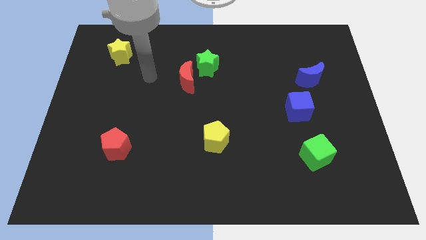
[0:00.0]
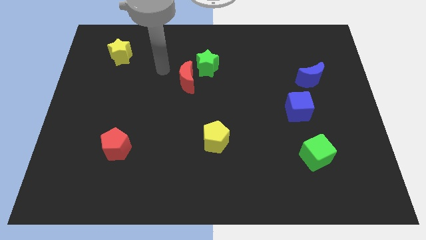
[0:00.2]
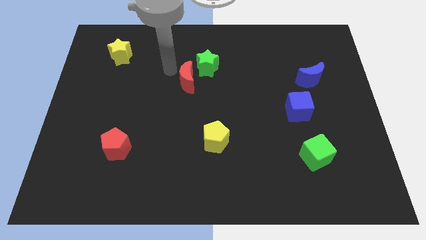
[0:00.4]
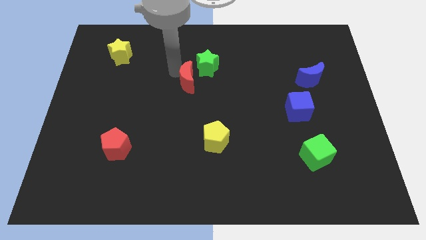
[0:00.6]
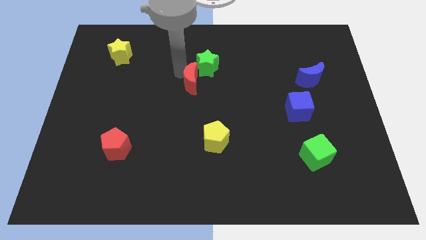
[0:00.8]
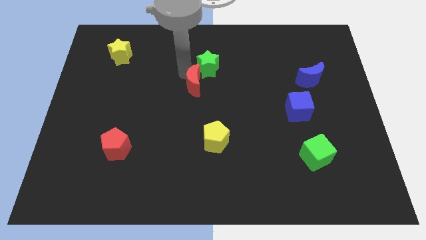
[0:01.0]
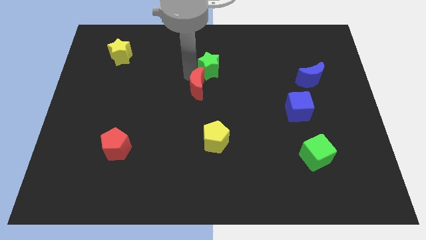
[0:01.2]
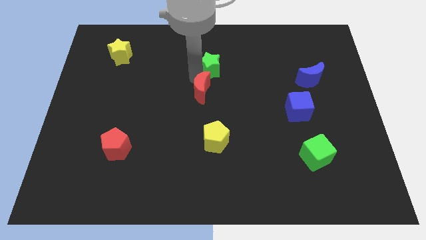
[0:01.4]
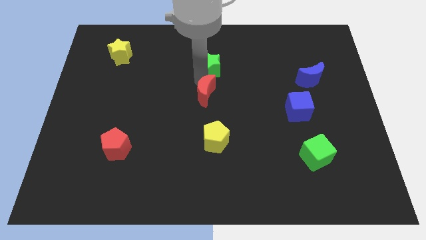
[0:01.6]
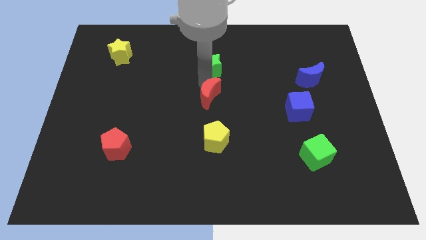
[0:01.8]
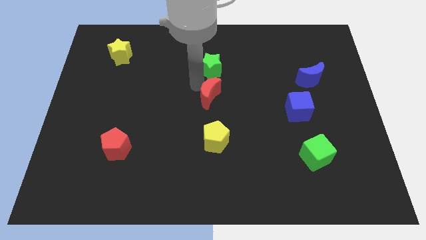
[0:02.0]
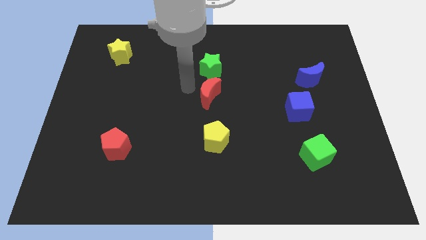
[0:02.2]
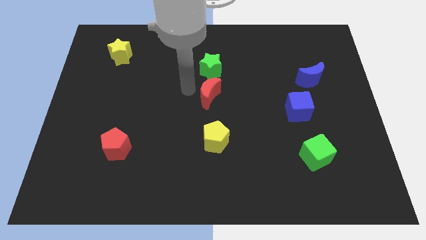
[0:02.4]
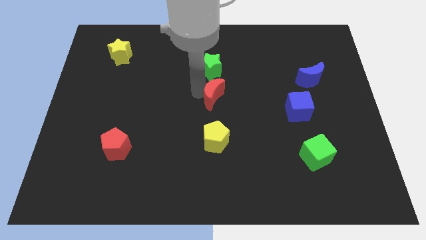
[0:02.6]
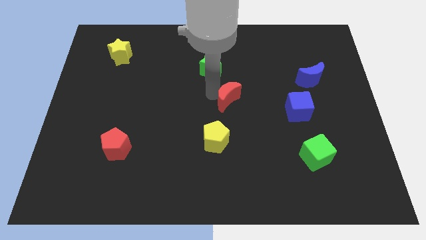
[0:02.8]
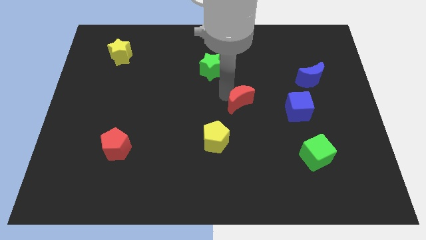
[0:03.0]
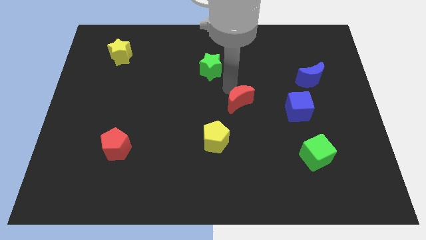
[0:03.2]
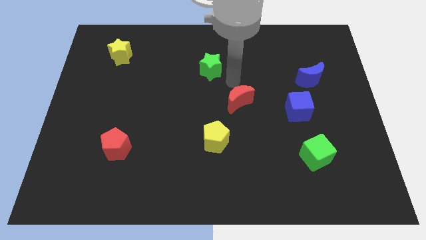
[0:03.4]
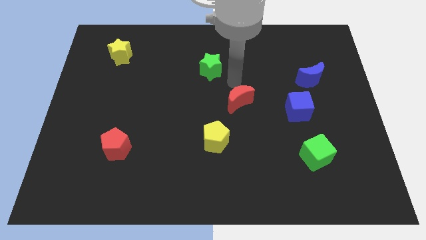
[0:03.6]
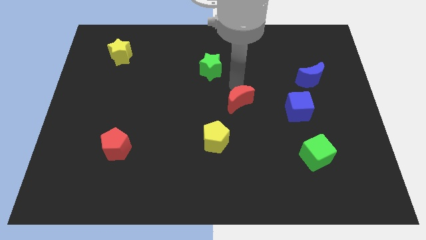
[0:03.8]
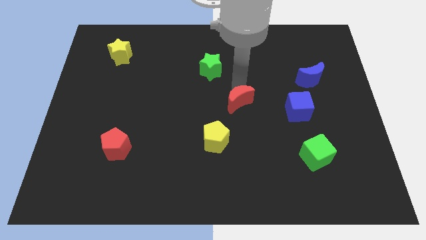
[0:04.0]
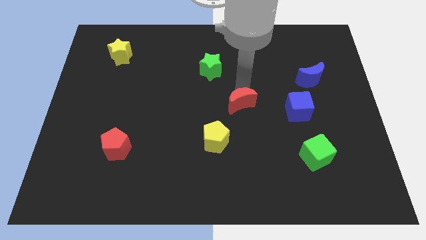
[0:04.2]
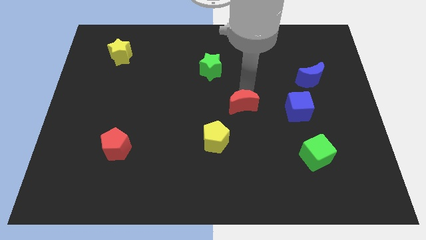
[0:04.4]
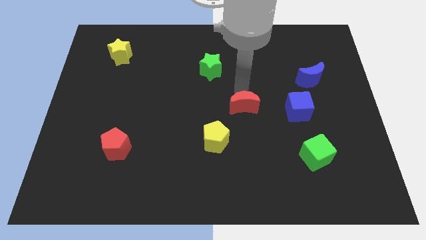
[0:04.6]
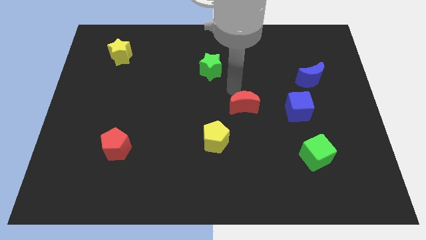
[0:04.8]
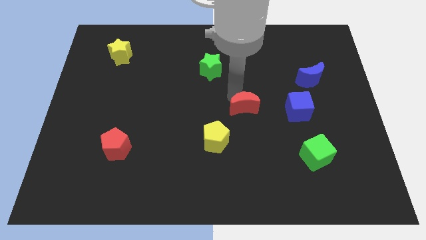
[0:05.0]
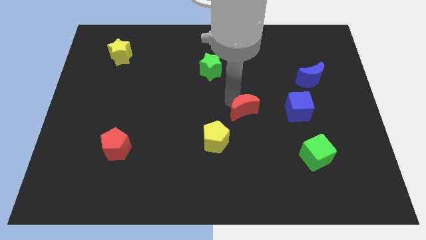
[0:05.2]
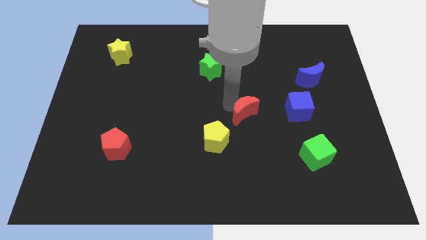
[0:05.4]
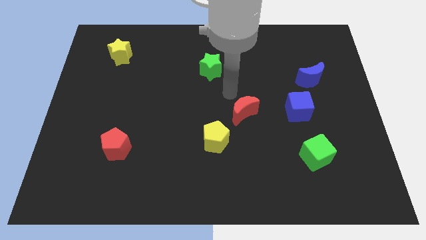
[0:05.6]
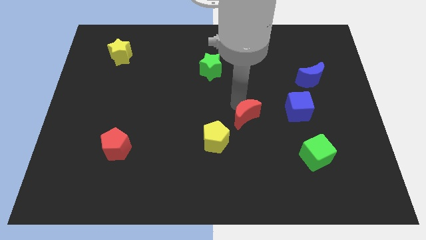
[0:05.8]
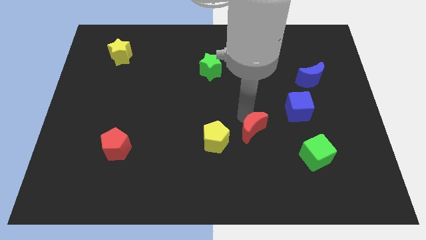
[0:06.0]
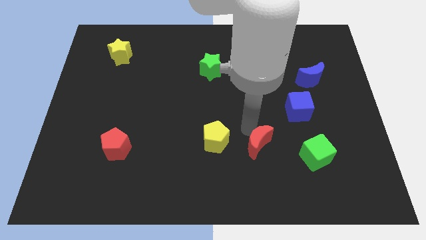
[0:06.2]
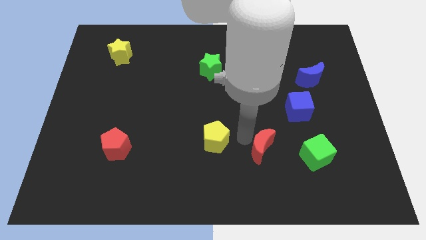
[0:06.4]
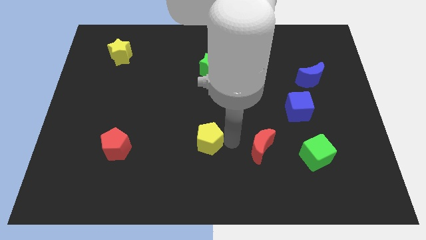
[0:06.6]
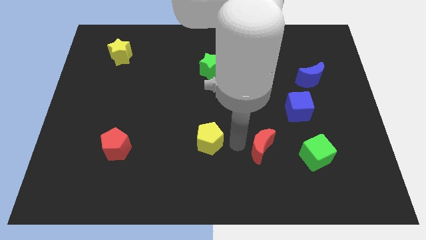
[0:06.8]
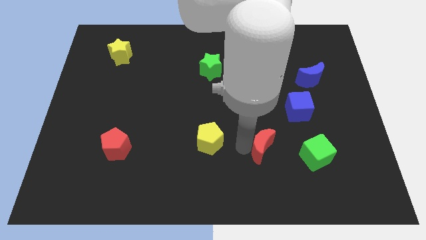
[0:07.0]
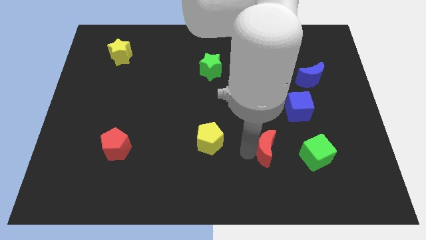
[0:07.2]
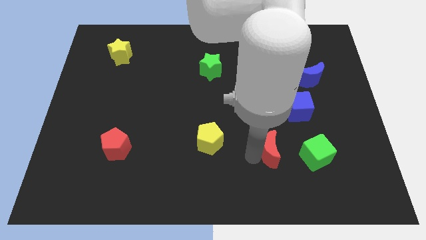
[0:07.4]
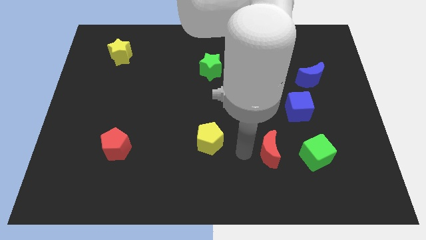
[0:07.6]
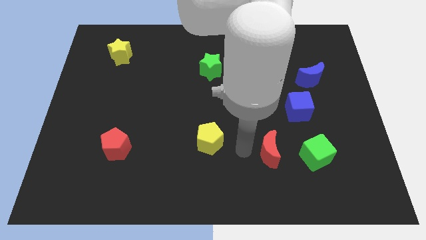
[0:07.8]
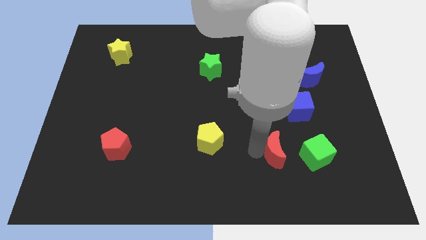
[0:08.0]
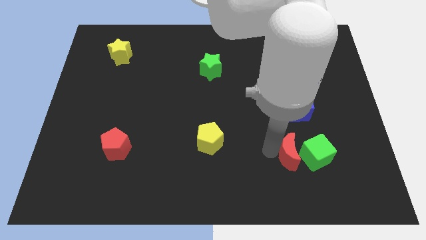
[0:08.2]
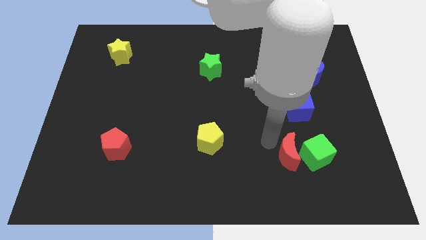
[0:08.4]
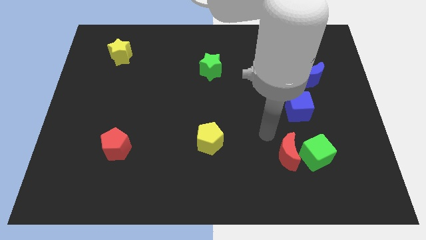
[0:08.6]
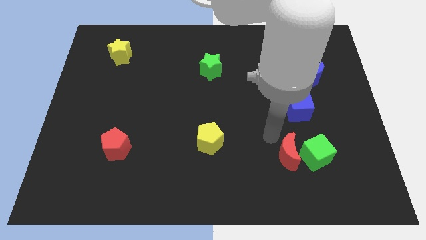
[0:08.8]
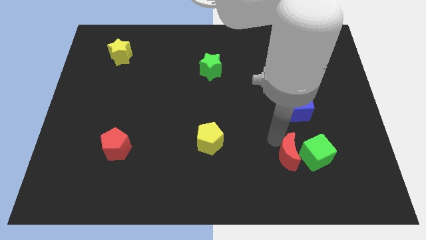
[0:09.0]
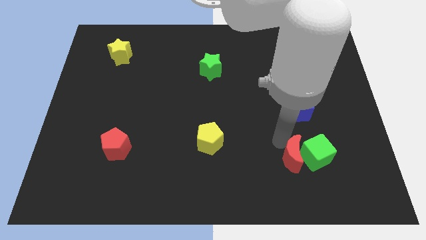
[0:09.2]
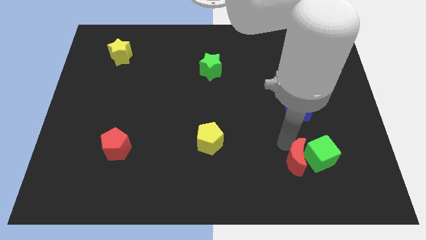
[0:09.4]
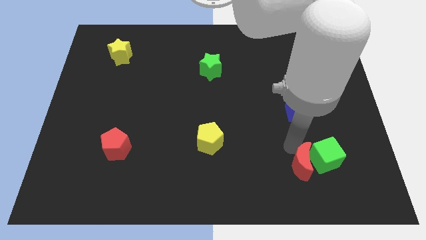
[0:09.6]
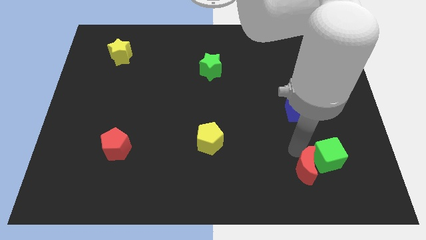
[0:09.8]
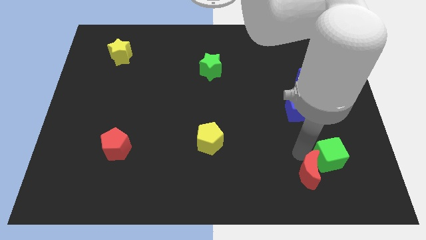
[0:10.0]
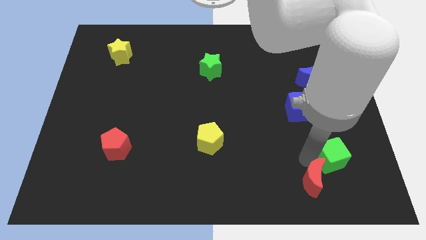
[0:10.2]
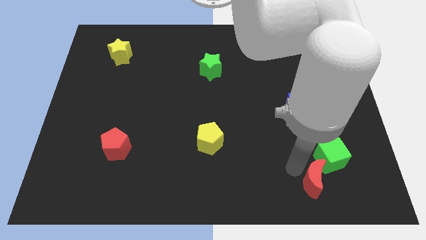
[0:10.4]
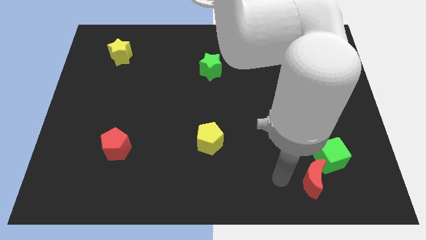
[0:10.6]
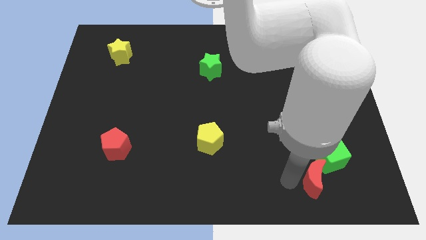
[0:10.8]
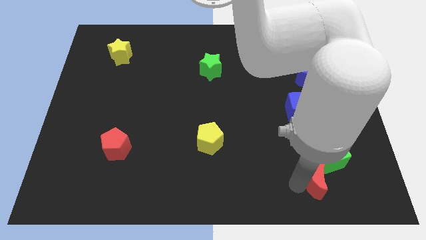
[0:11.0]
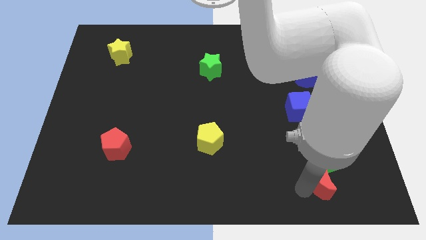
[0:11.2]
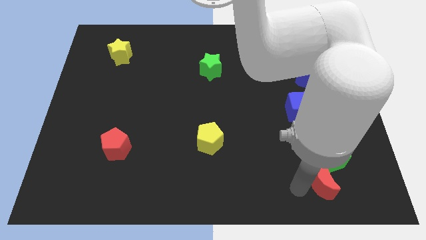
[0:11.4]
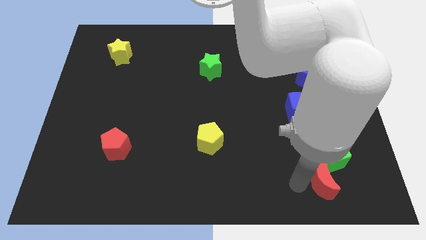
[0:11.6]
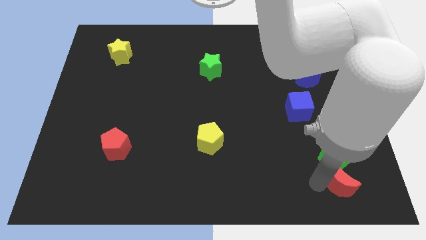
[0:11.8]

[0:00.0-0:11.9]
put the red moon to the bottom right side of the green cube

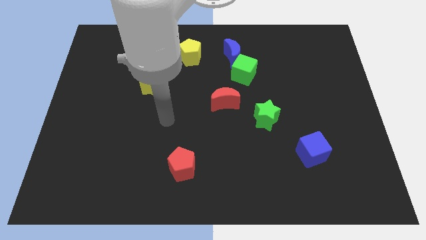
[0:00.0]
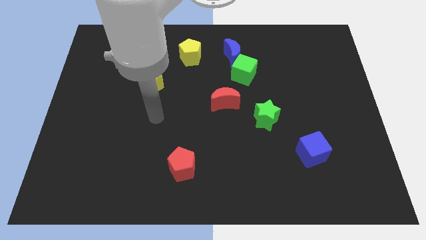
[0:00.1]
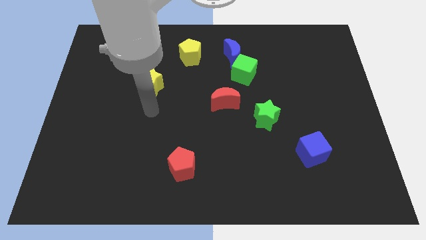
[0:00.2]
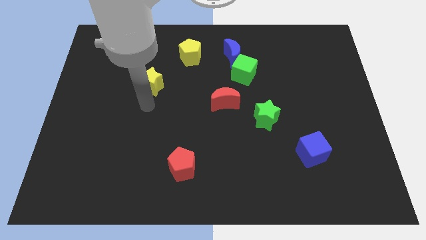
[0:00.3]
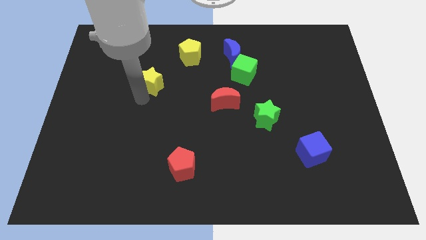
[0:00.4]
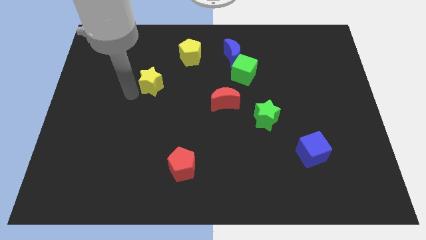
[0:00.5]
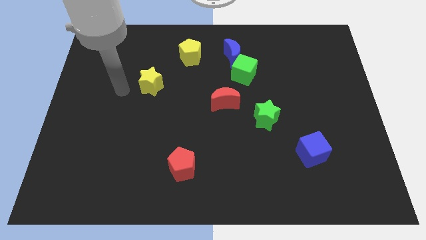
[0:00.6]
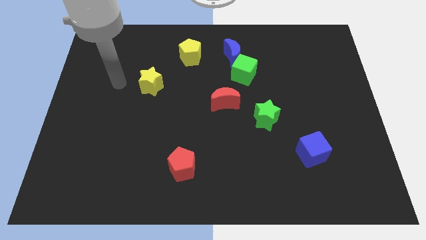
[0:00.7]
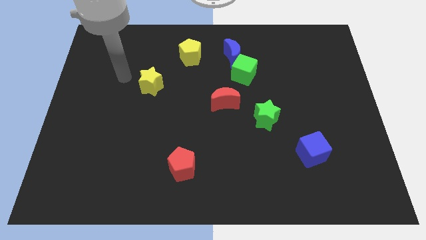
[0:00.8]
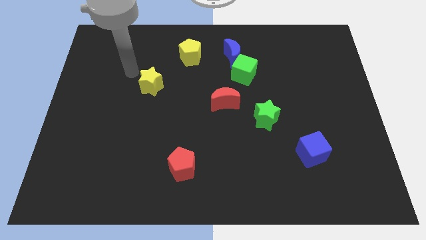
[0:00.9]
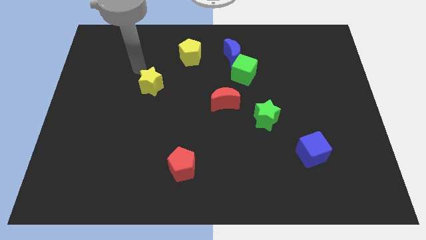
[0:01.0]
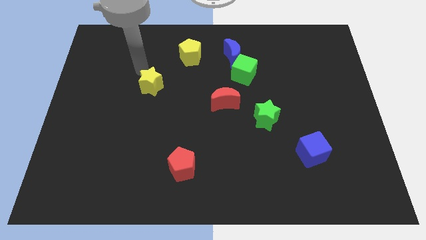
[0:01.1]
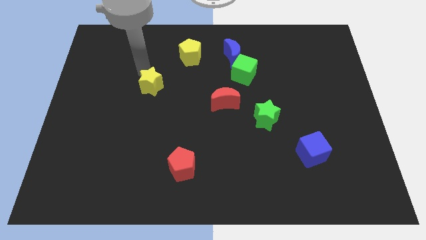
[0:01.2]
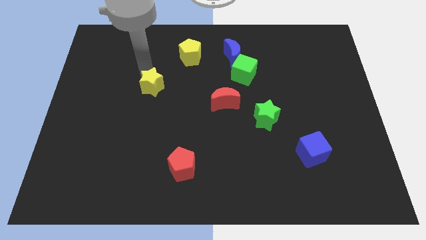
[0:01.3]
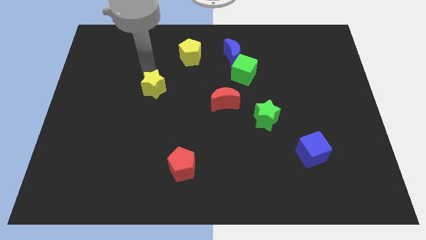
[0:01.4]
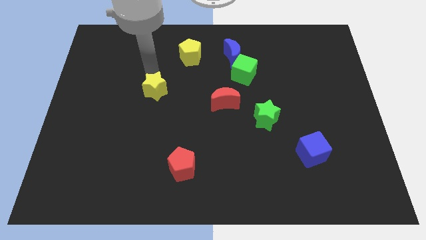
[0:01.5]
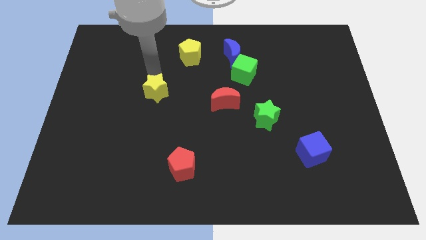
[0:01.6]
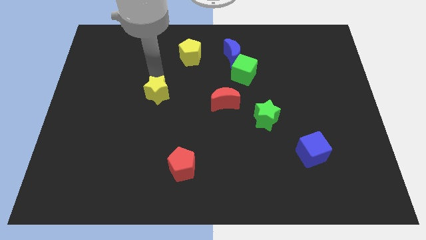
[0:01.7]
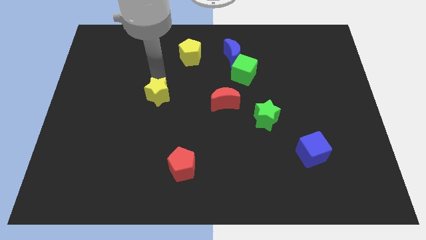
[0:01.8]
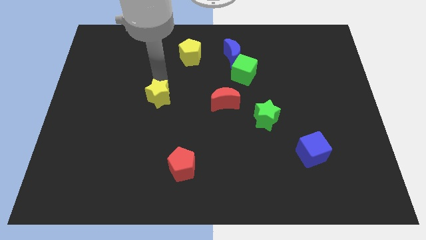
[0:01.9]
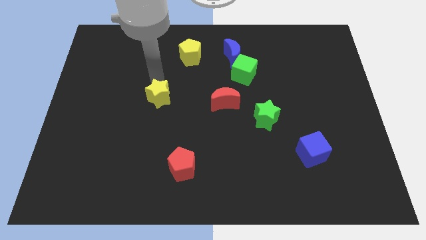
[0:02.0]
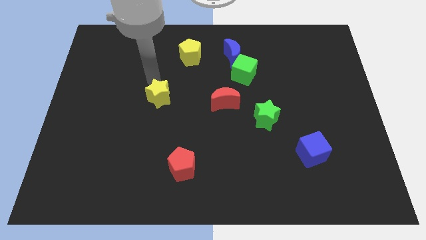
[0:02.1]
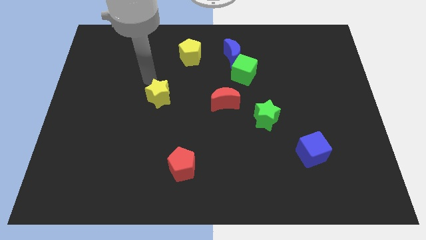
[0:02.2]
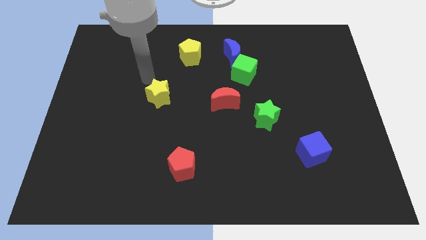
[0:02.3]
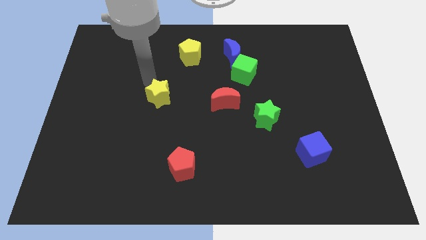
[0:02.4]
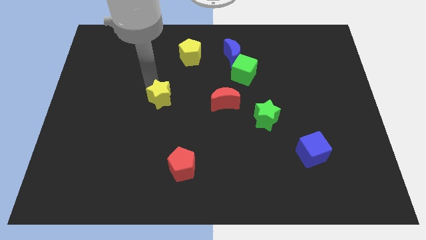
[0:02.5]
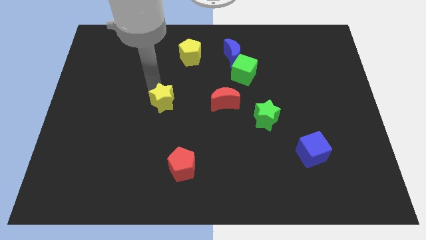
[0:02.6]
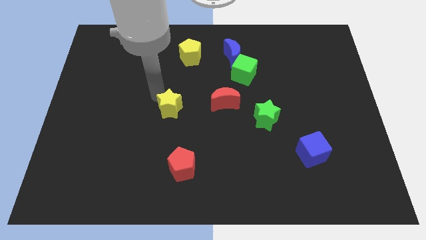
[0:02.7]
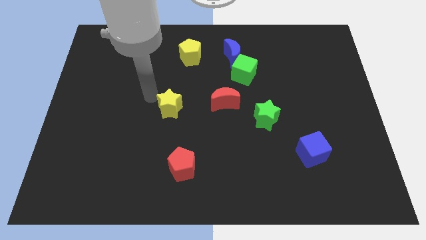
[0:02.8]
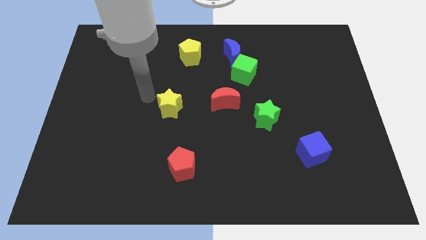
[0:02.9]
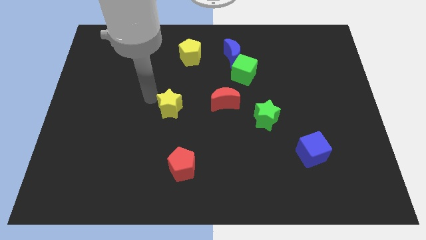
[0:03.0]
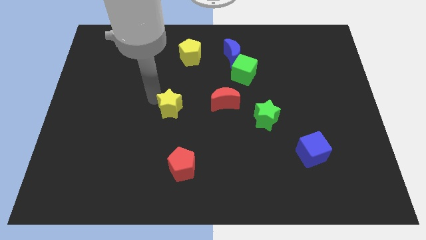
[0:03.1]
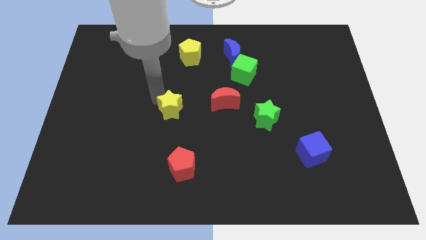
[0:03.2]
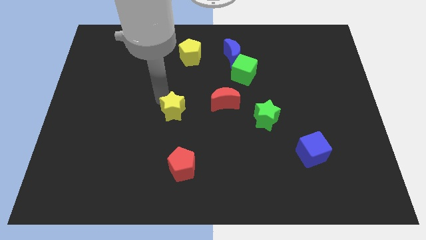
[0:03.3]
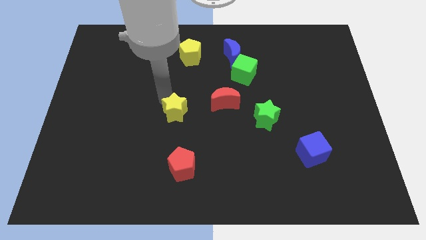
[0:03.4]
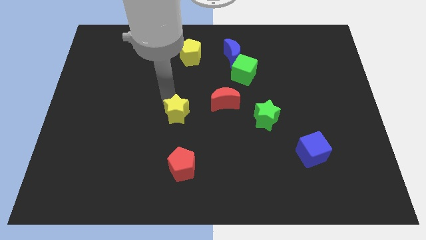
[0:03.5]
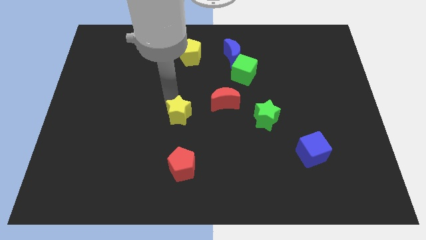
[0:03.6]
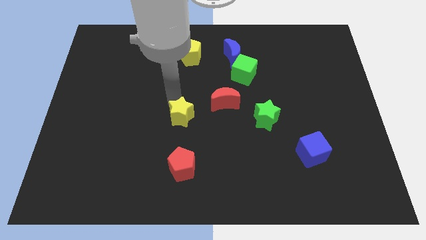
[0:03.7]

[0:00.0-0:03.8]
put the yellow star to the bottom left side of the red moon
